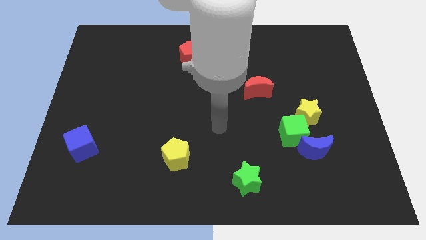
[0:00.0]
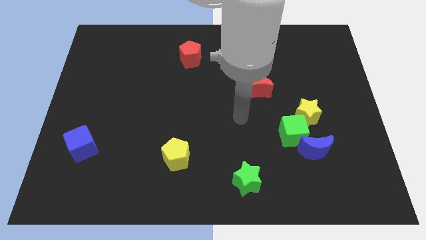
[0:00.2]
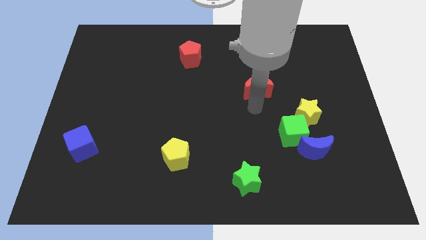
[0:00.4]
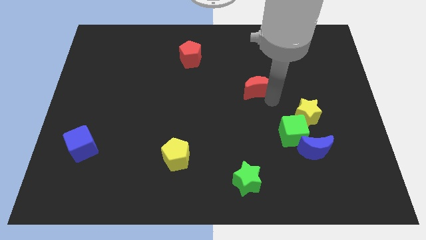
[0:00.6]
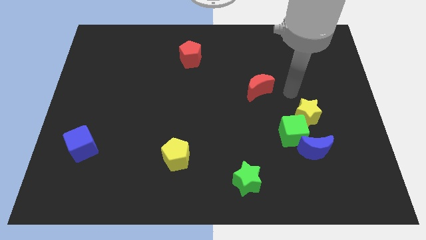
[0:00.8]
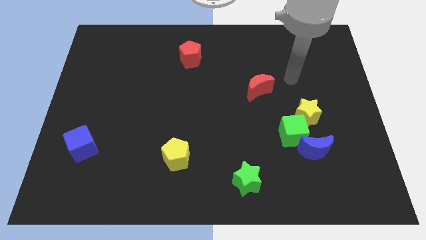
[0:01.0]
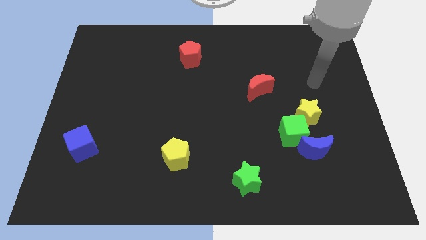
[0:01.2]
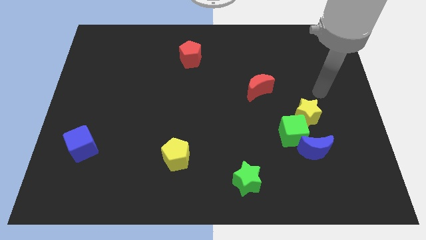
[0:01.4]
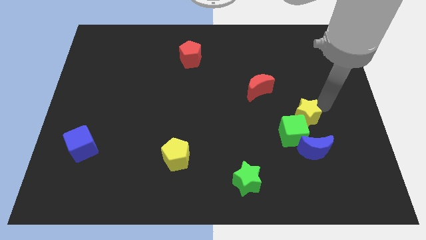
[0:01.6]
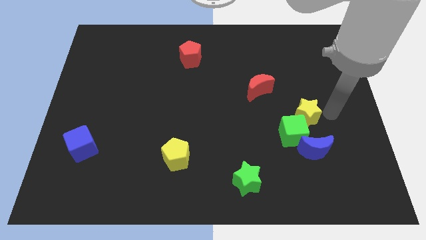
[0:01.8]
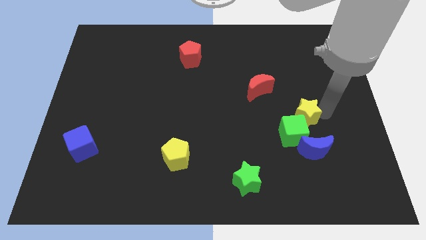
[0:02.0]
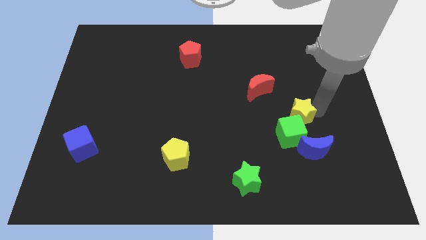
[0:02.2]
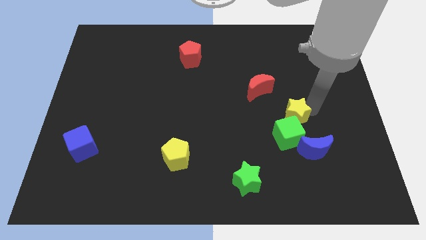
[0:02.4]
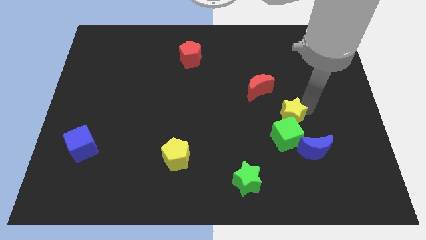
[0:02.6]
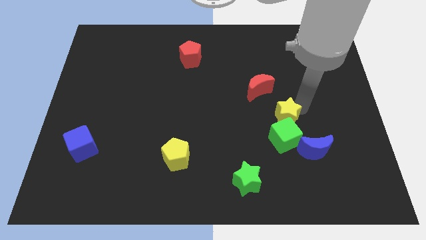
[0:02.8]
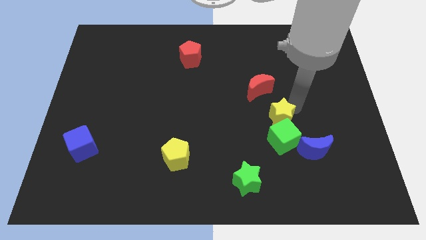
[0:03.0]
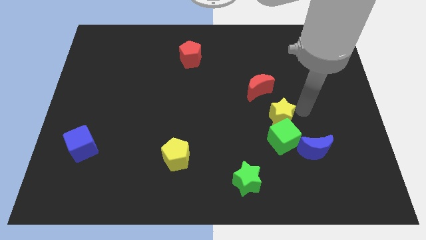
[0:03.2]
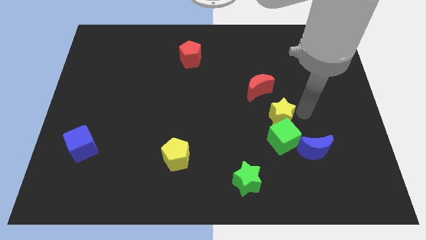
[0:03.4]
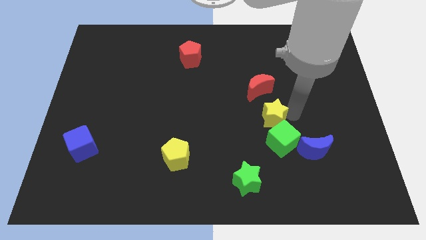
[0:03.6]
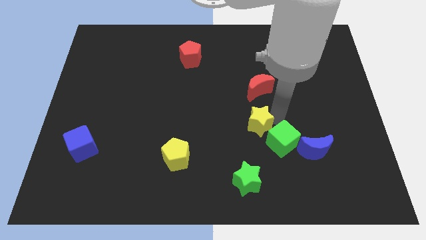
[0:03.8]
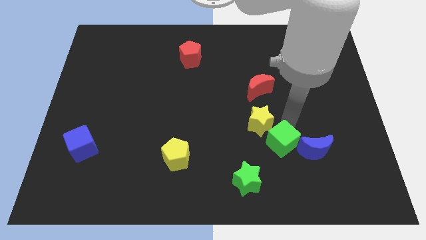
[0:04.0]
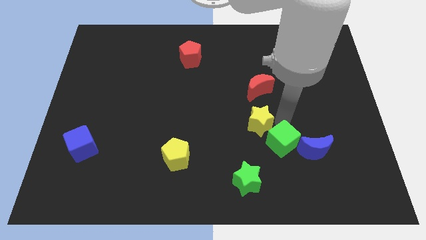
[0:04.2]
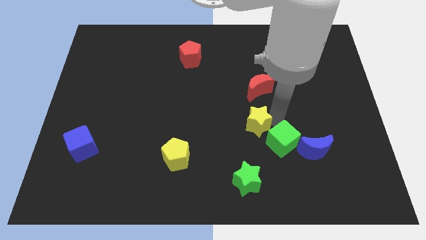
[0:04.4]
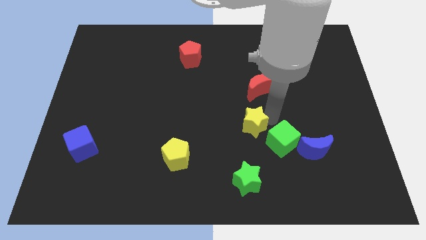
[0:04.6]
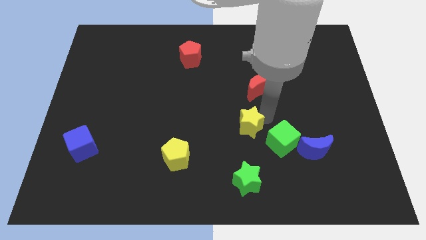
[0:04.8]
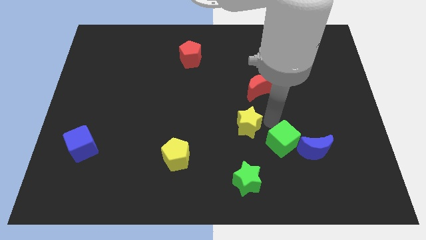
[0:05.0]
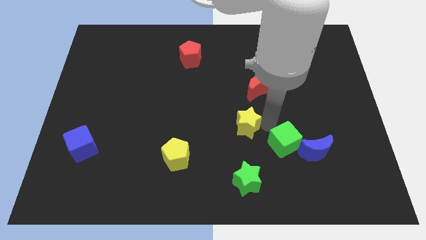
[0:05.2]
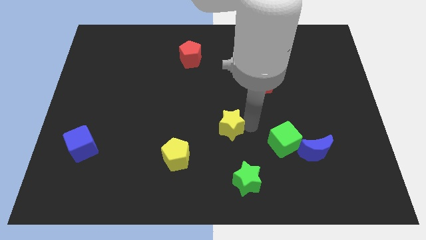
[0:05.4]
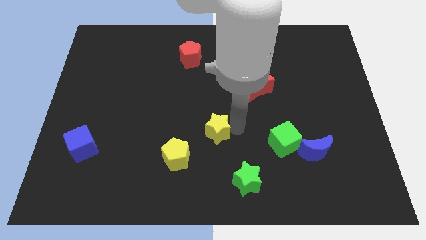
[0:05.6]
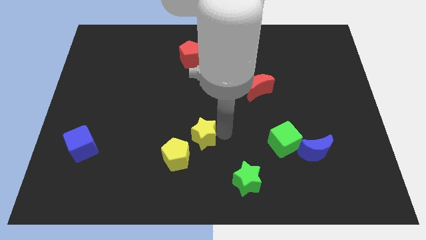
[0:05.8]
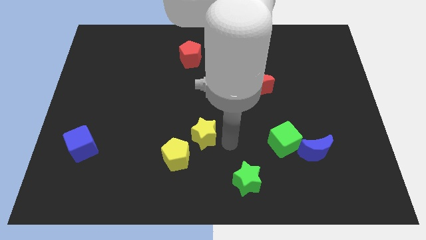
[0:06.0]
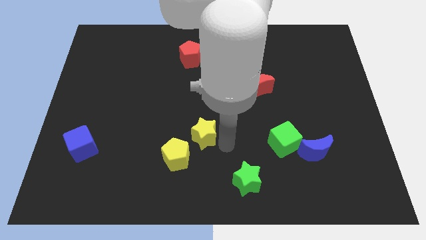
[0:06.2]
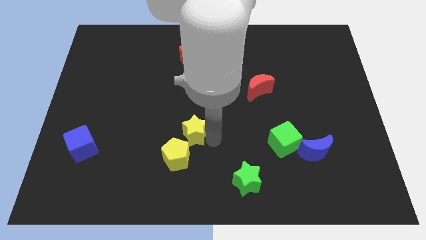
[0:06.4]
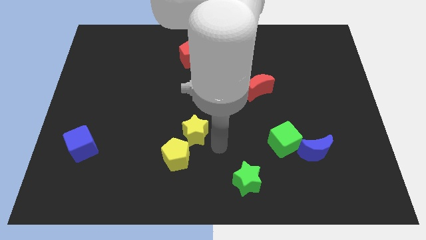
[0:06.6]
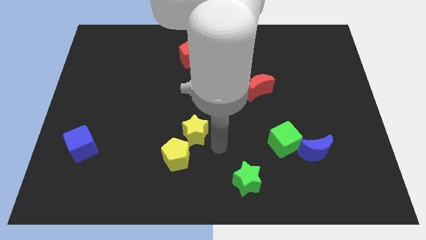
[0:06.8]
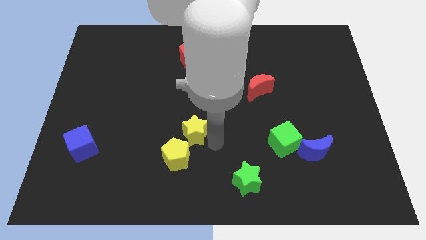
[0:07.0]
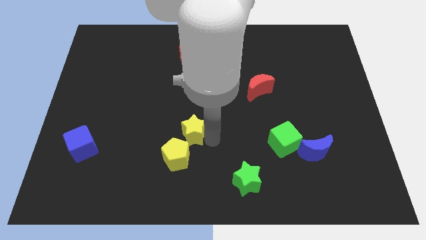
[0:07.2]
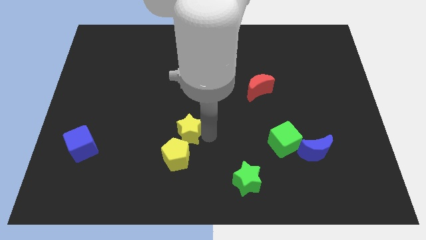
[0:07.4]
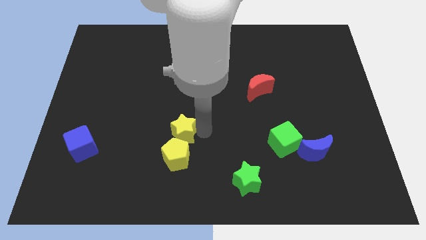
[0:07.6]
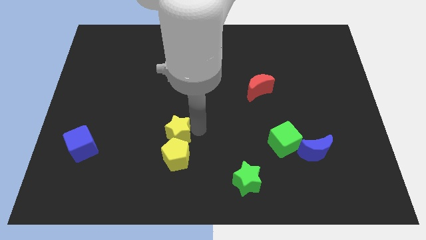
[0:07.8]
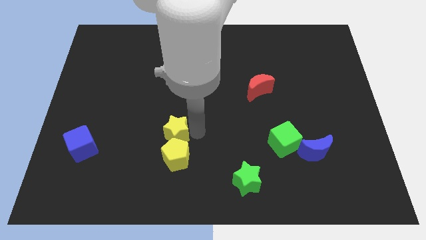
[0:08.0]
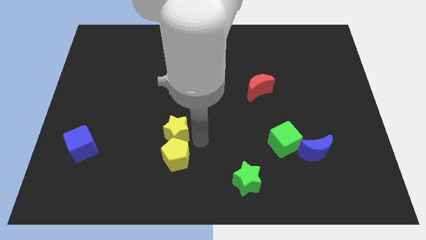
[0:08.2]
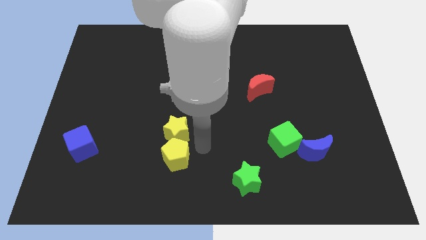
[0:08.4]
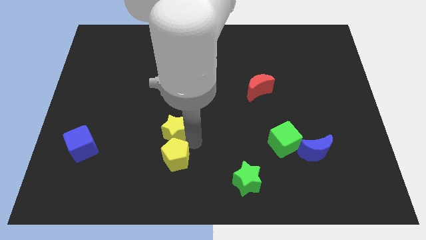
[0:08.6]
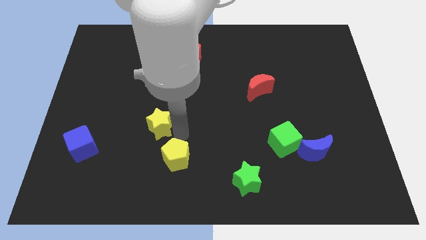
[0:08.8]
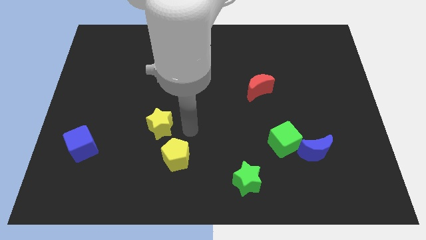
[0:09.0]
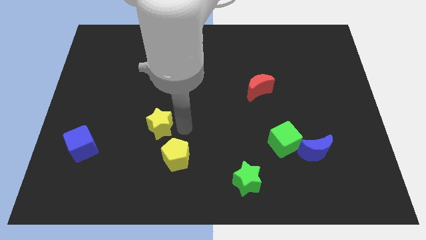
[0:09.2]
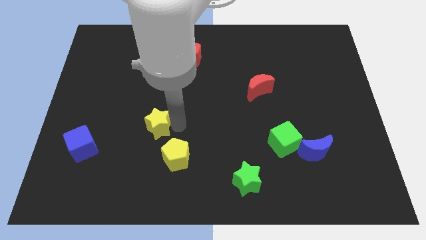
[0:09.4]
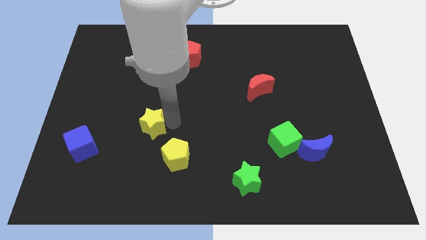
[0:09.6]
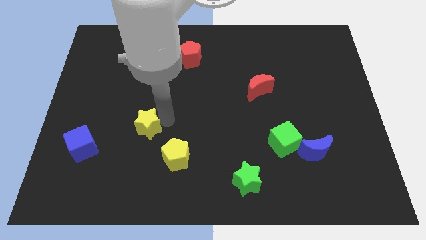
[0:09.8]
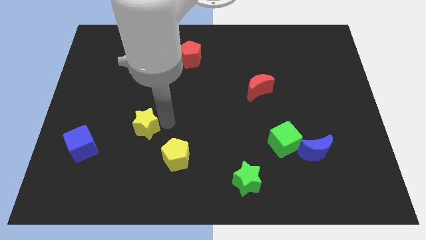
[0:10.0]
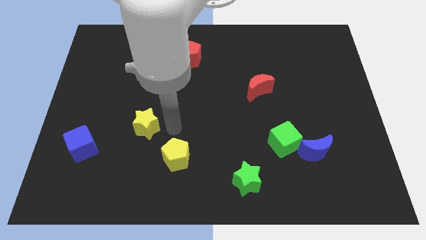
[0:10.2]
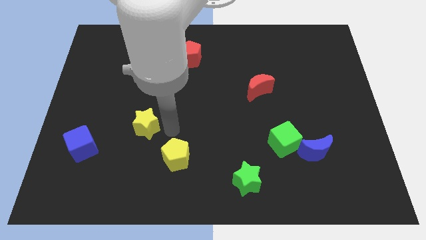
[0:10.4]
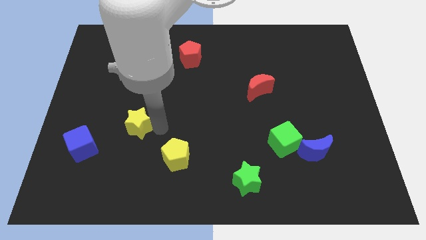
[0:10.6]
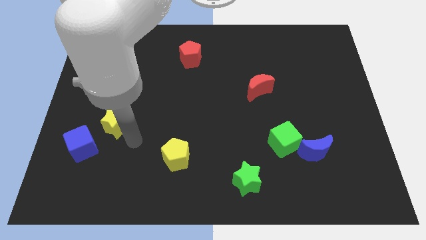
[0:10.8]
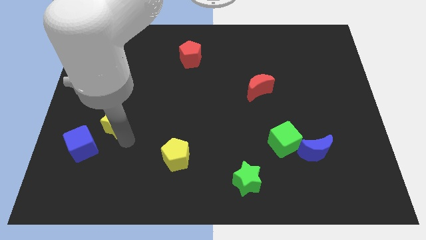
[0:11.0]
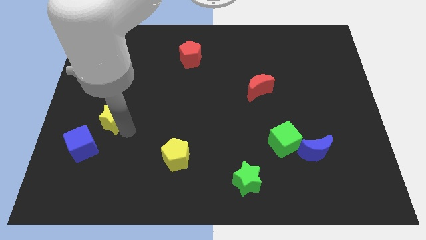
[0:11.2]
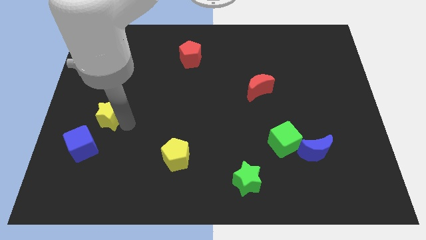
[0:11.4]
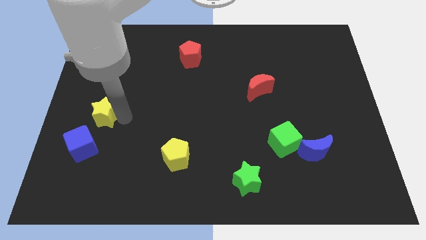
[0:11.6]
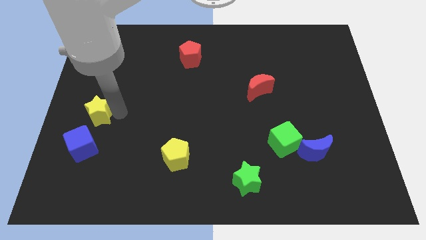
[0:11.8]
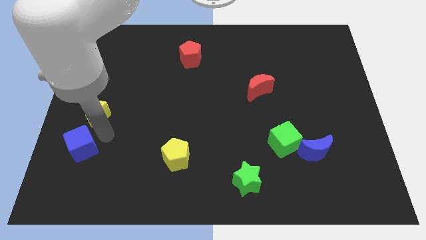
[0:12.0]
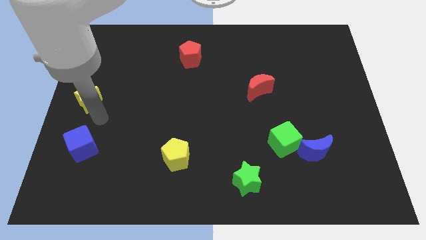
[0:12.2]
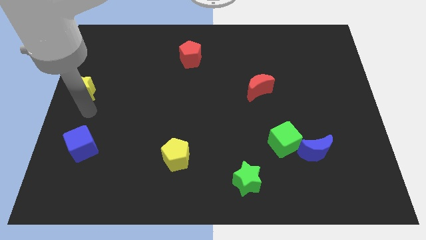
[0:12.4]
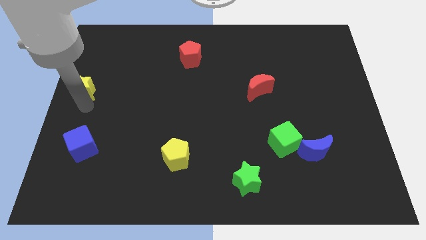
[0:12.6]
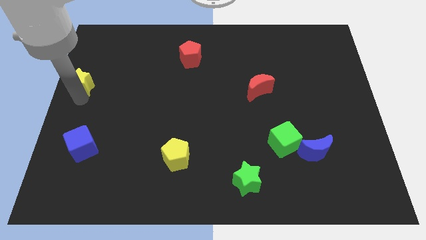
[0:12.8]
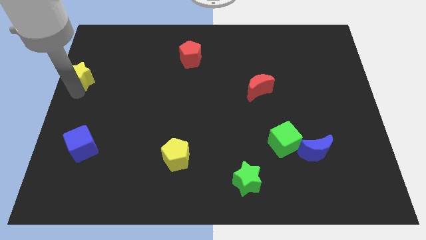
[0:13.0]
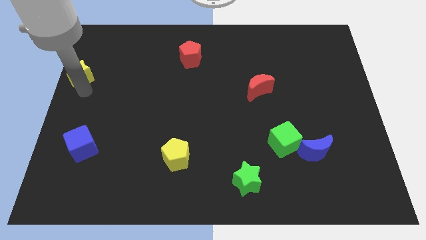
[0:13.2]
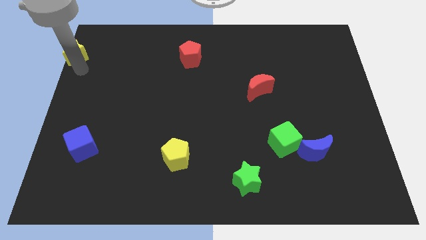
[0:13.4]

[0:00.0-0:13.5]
slide the yellow star to the upper left corner

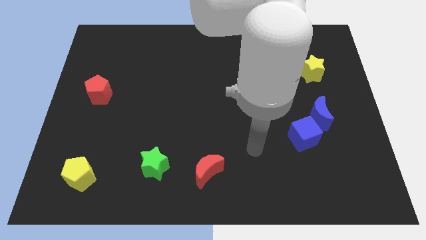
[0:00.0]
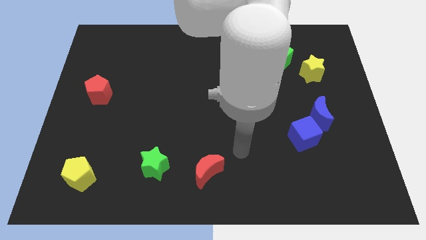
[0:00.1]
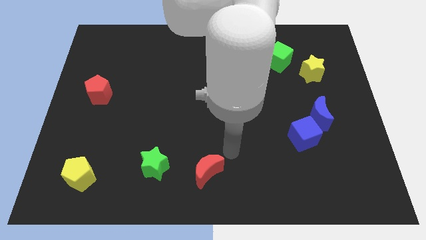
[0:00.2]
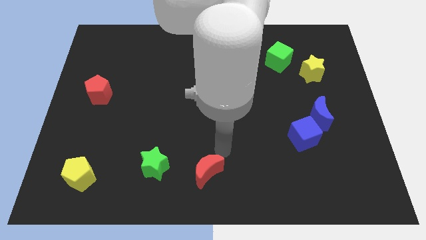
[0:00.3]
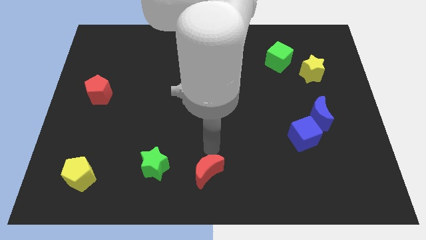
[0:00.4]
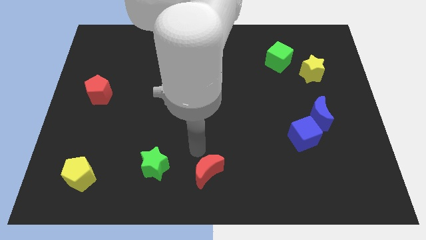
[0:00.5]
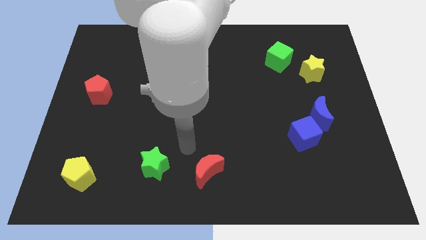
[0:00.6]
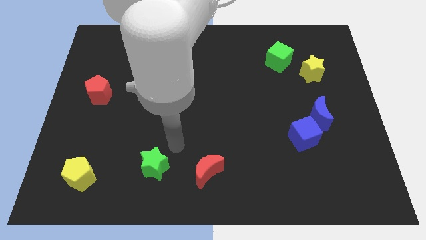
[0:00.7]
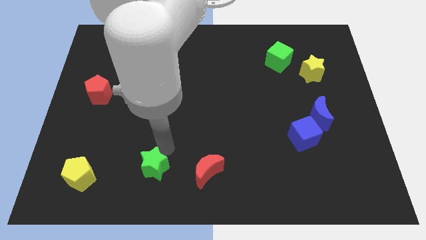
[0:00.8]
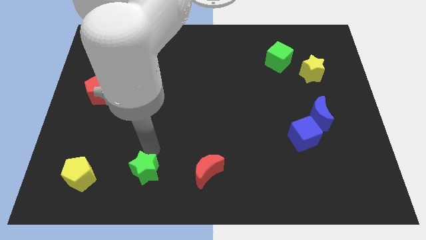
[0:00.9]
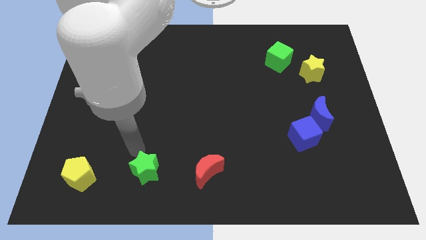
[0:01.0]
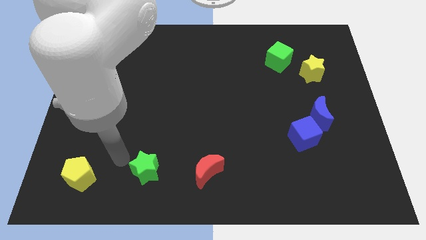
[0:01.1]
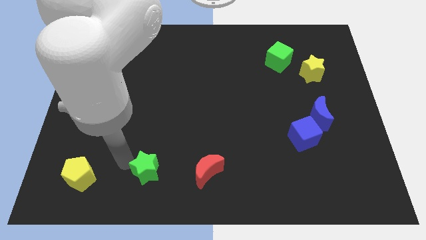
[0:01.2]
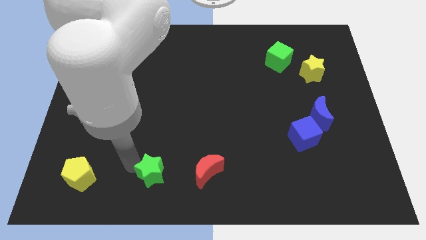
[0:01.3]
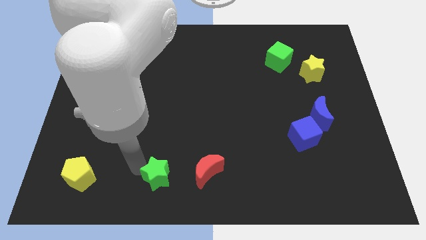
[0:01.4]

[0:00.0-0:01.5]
move the green star to the bottom side
